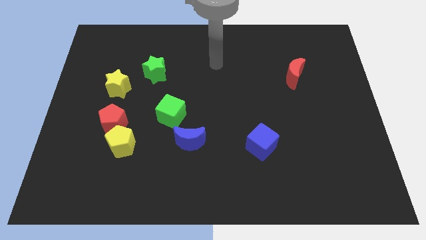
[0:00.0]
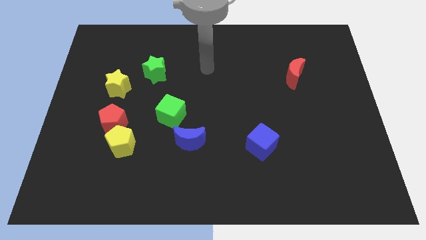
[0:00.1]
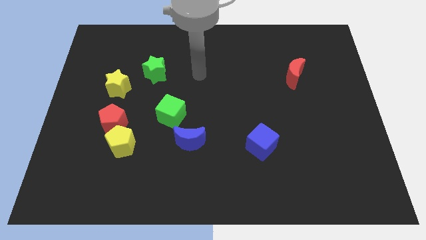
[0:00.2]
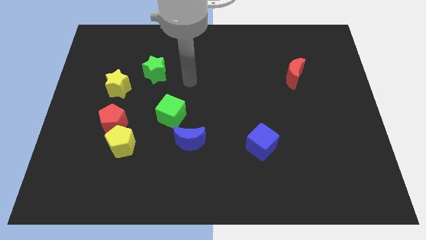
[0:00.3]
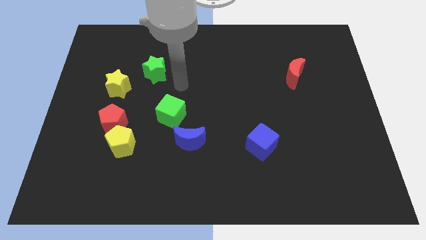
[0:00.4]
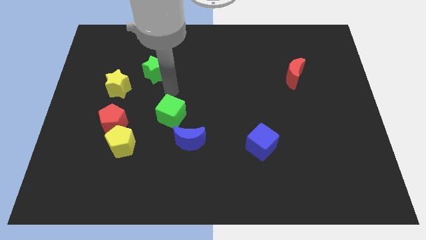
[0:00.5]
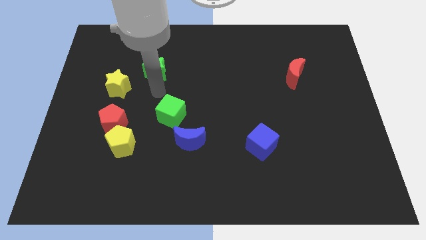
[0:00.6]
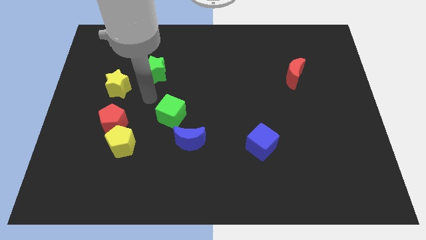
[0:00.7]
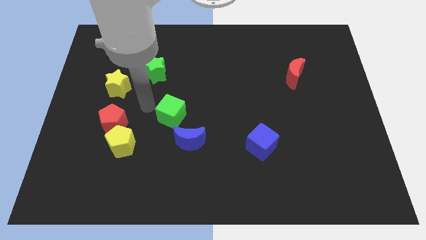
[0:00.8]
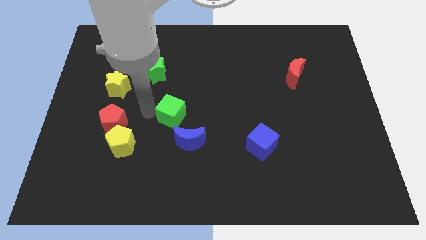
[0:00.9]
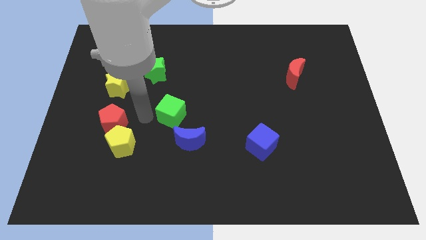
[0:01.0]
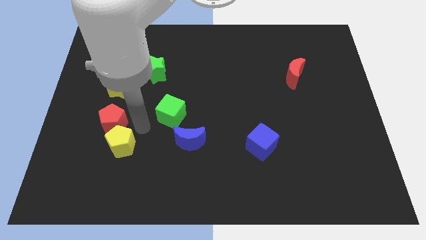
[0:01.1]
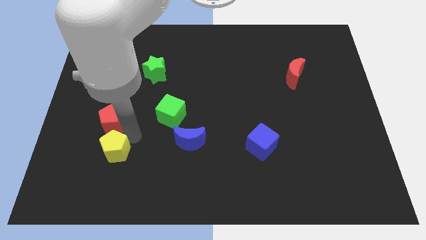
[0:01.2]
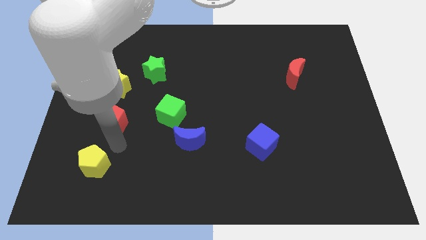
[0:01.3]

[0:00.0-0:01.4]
move the red pentagon away from the yellow pentagon

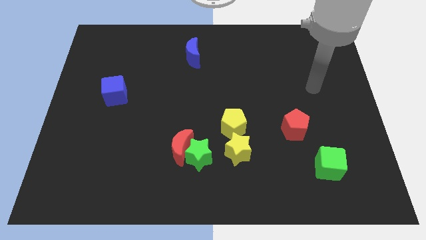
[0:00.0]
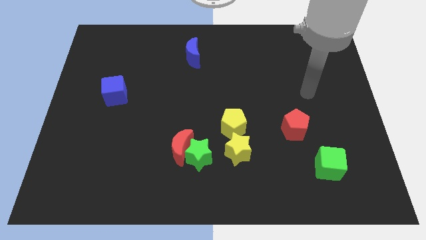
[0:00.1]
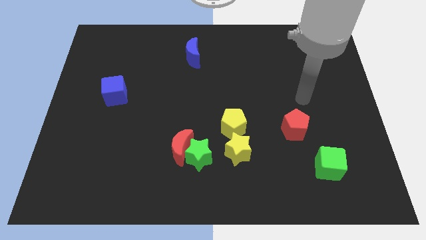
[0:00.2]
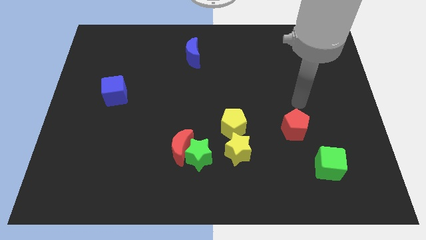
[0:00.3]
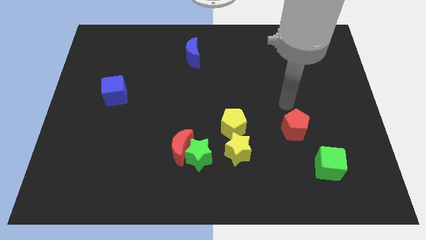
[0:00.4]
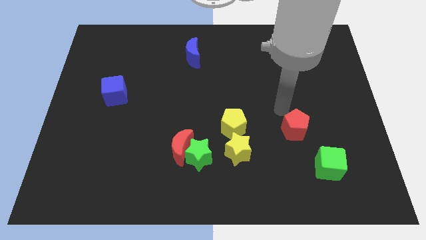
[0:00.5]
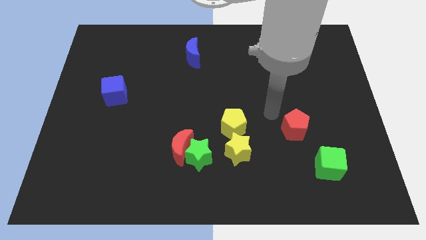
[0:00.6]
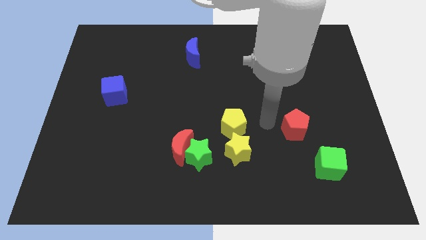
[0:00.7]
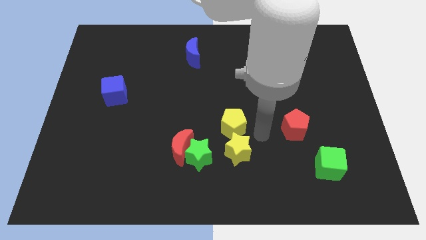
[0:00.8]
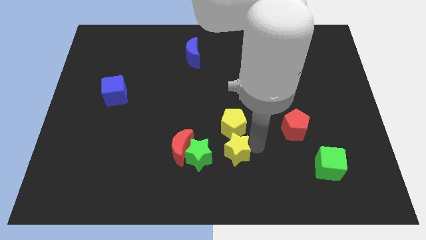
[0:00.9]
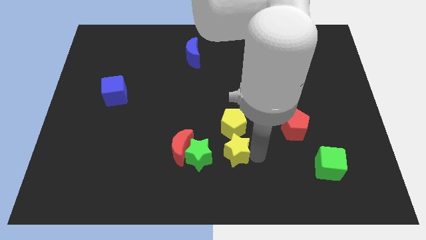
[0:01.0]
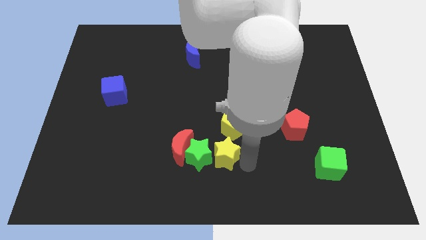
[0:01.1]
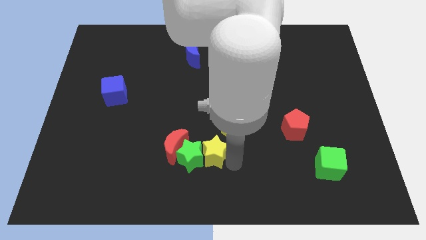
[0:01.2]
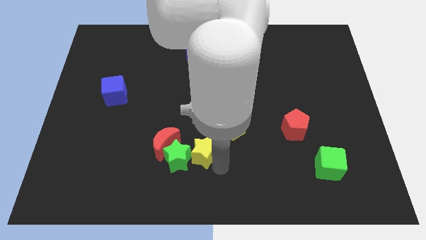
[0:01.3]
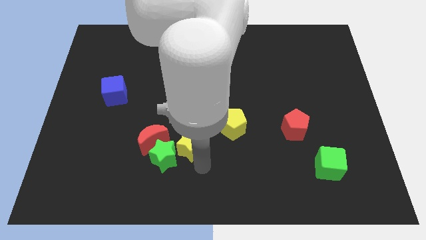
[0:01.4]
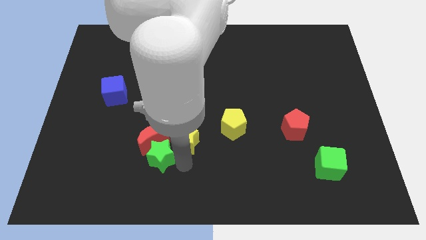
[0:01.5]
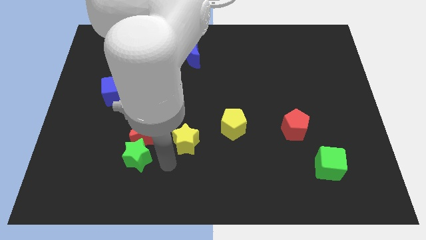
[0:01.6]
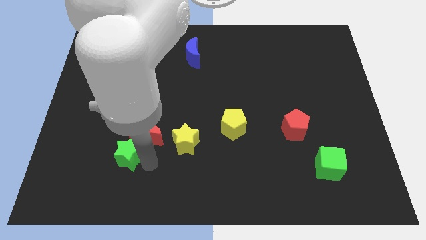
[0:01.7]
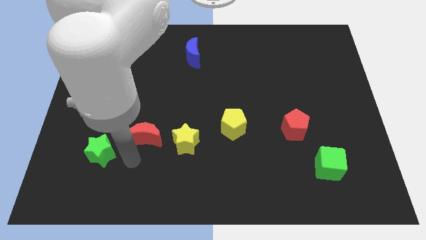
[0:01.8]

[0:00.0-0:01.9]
pull the red moon apart from the green star

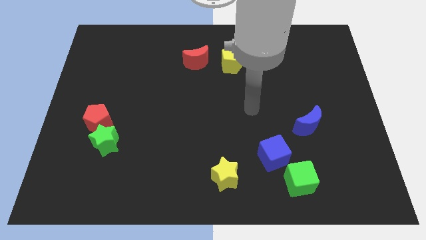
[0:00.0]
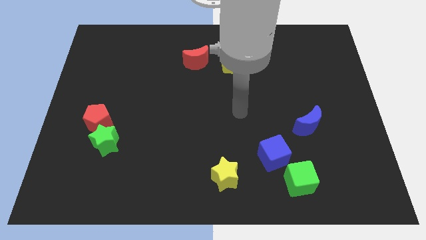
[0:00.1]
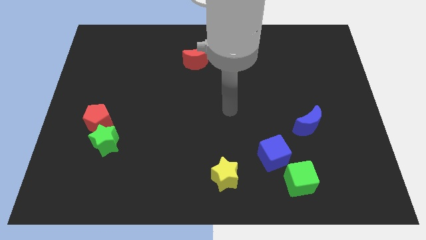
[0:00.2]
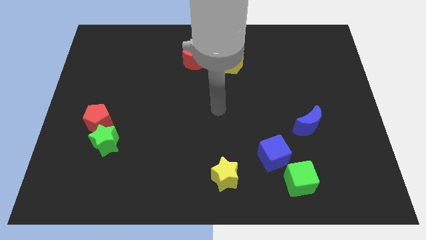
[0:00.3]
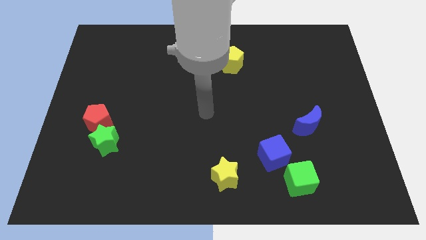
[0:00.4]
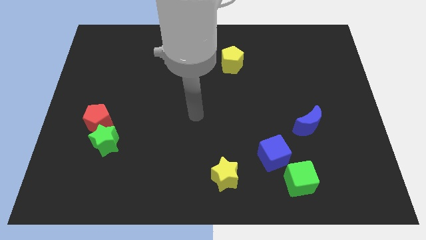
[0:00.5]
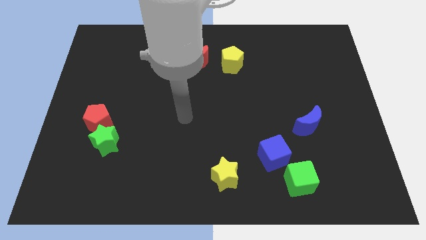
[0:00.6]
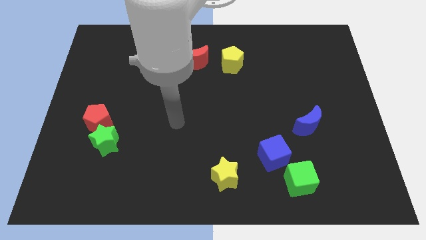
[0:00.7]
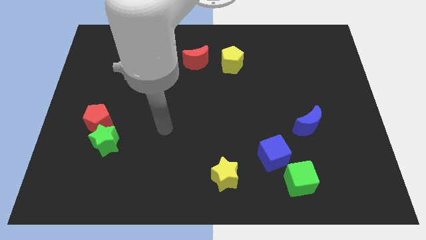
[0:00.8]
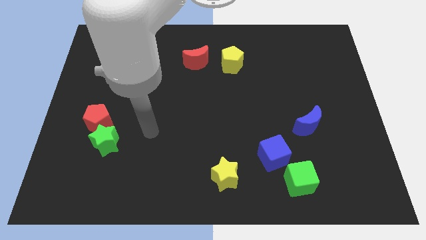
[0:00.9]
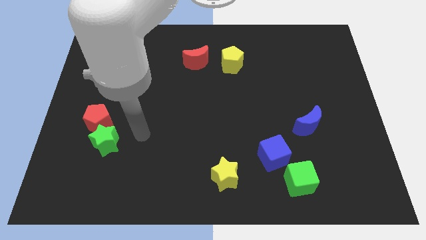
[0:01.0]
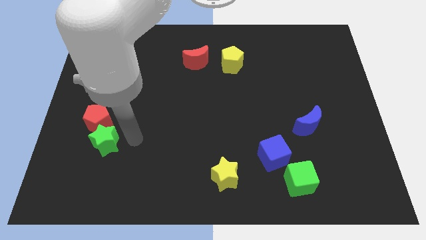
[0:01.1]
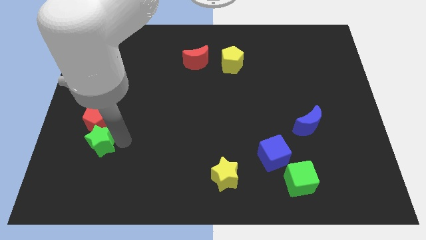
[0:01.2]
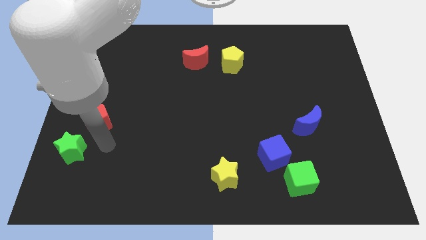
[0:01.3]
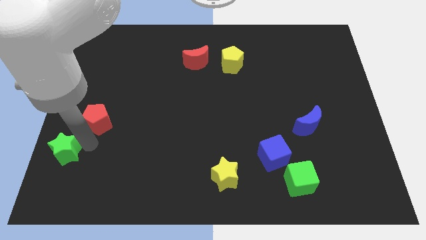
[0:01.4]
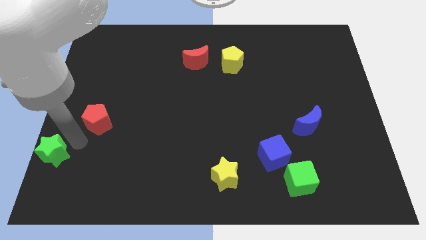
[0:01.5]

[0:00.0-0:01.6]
separate the red pentagon from the green star

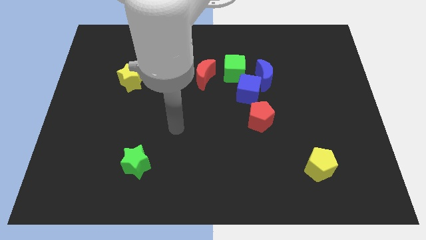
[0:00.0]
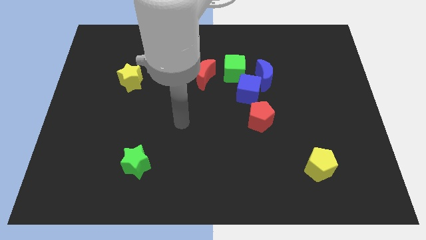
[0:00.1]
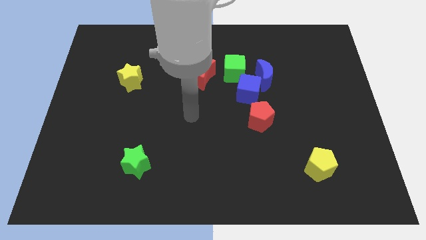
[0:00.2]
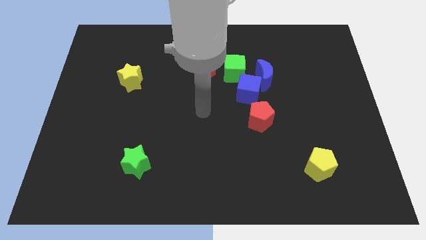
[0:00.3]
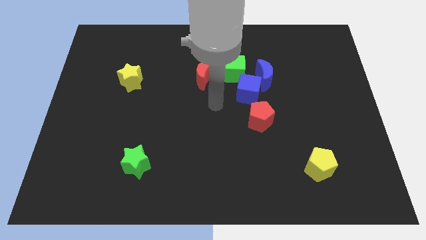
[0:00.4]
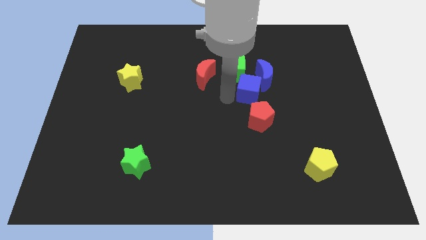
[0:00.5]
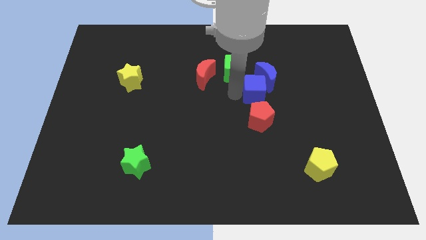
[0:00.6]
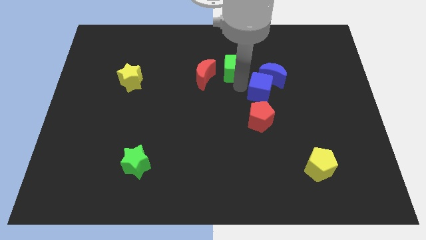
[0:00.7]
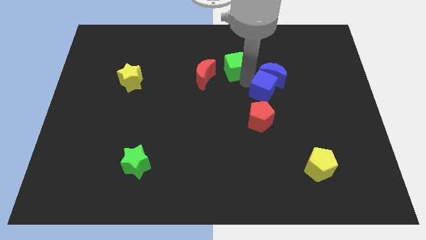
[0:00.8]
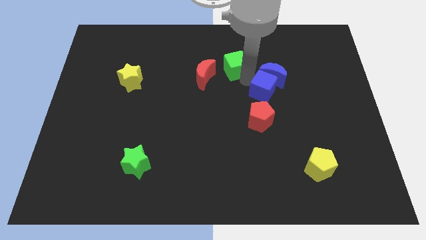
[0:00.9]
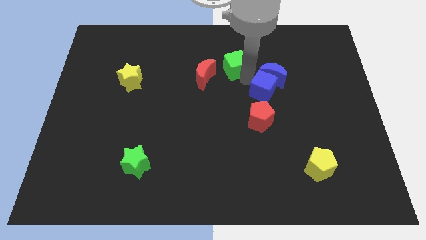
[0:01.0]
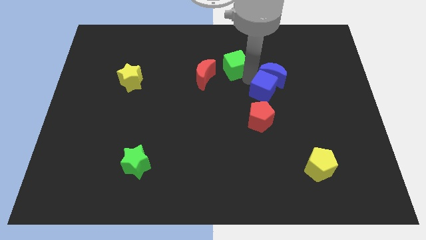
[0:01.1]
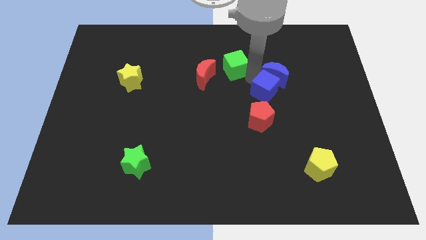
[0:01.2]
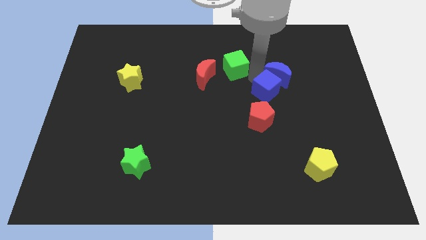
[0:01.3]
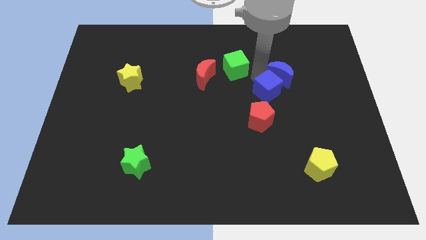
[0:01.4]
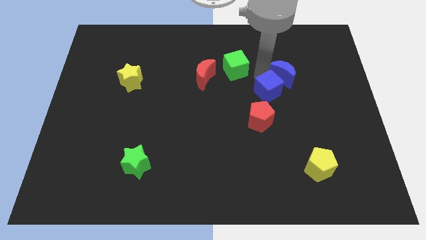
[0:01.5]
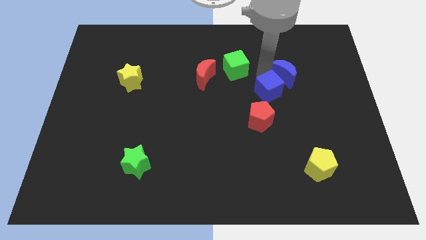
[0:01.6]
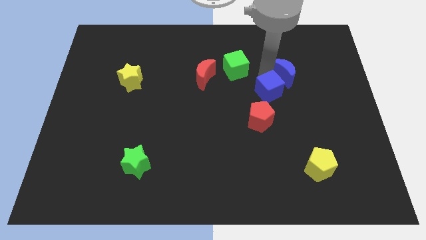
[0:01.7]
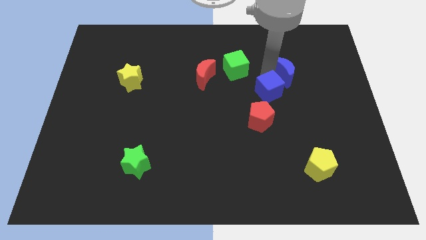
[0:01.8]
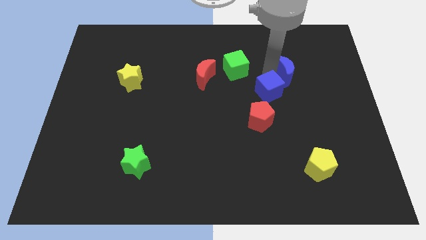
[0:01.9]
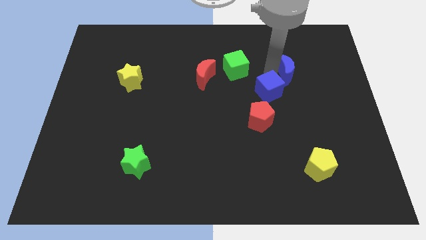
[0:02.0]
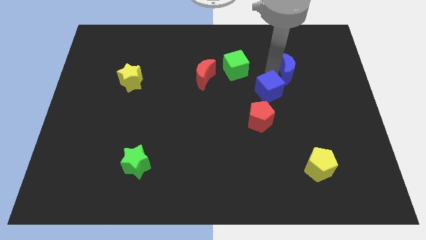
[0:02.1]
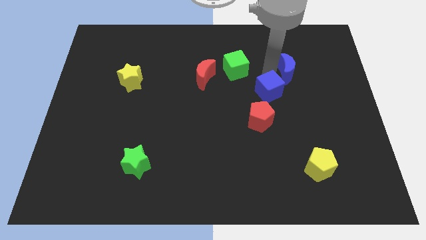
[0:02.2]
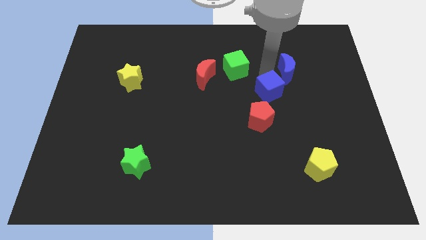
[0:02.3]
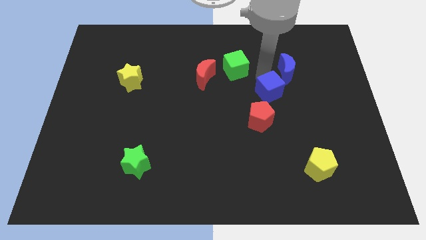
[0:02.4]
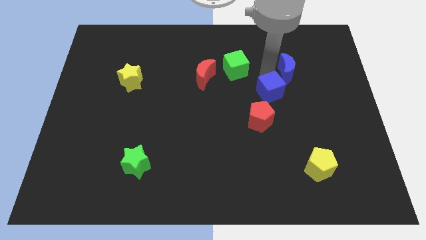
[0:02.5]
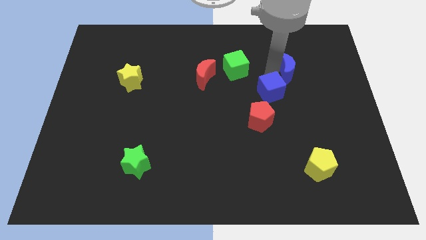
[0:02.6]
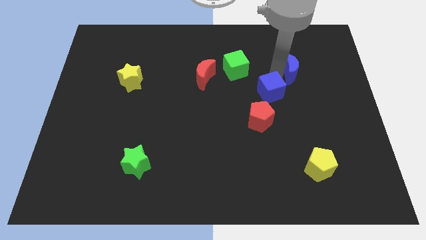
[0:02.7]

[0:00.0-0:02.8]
move the blue moon away from the blue cube and green cube

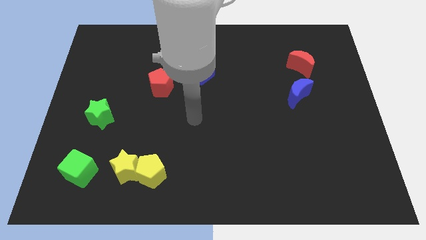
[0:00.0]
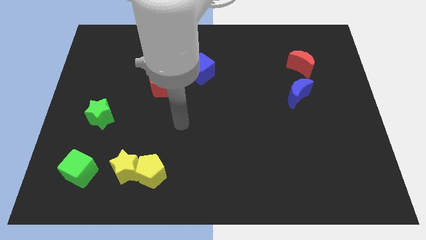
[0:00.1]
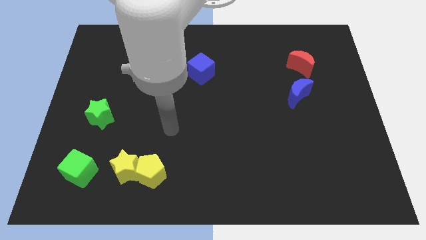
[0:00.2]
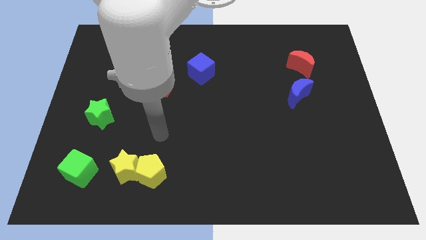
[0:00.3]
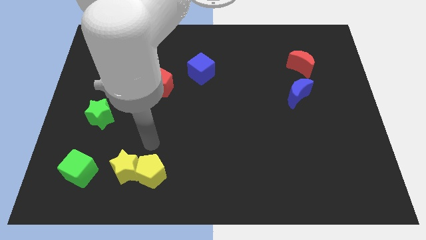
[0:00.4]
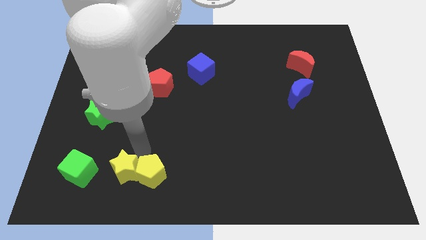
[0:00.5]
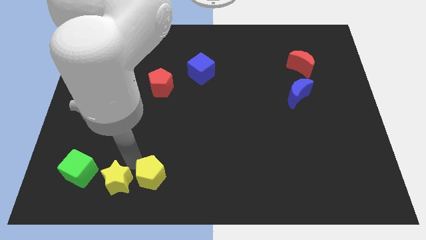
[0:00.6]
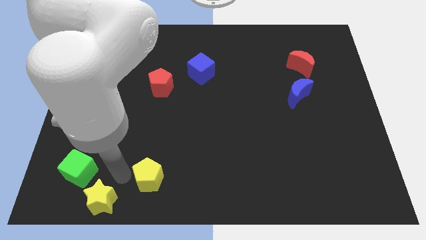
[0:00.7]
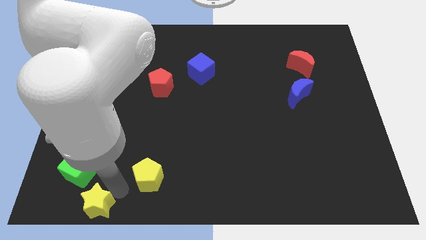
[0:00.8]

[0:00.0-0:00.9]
separate the yellow pentagon from the yellow star

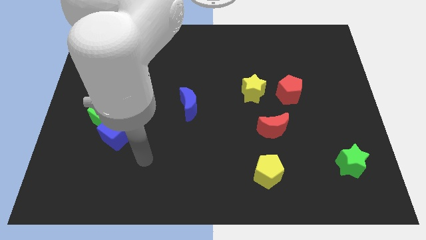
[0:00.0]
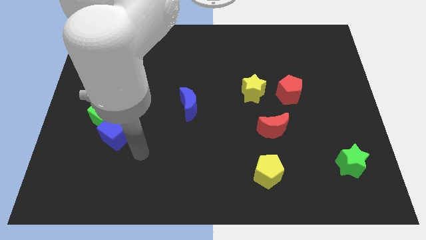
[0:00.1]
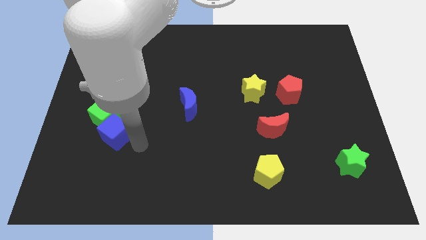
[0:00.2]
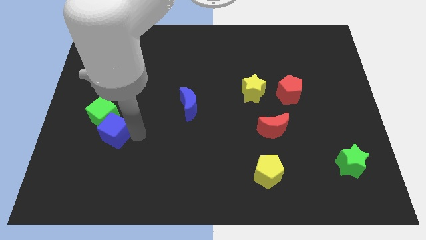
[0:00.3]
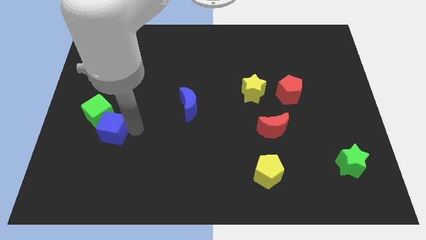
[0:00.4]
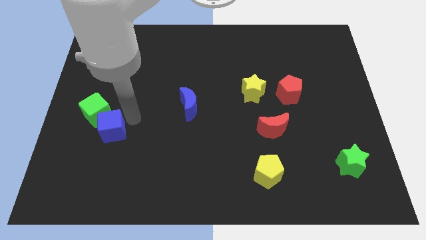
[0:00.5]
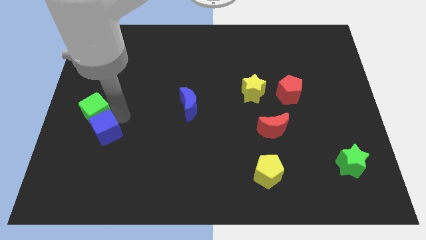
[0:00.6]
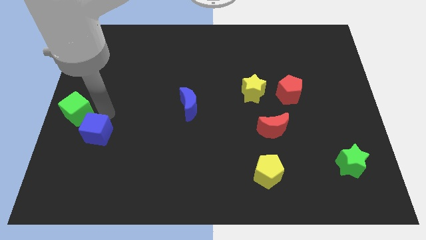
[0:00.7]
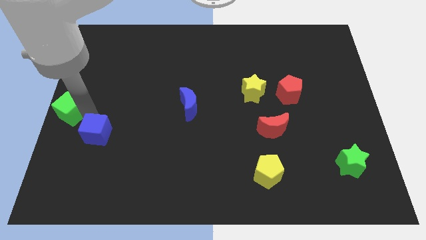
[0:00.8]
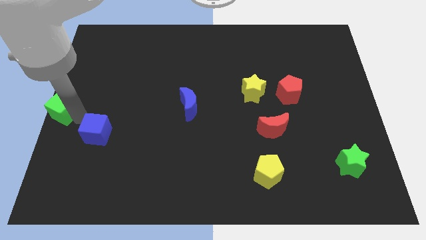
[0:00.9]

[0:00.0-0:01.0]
pull the blue cube apart from the green cube
